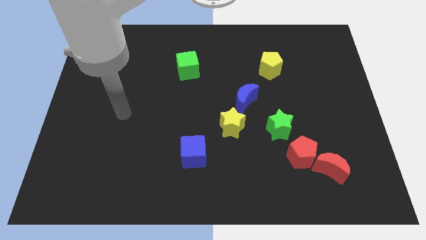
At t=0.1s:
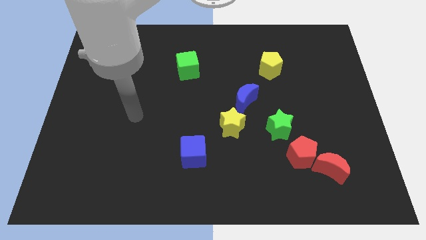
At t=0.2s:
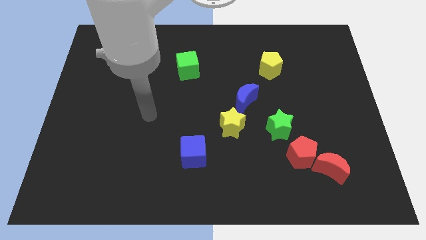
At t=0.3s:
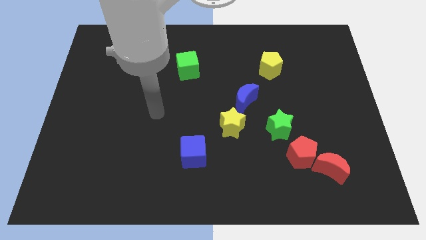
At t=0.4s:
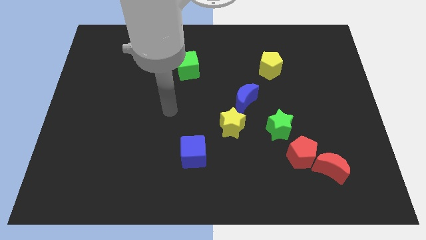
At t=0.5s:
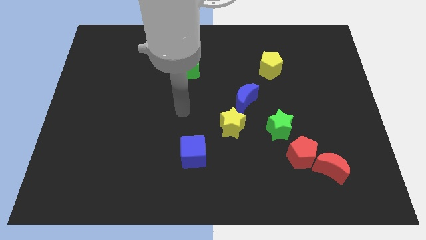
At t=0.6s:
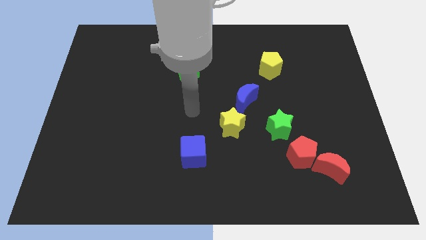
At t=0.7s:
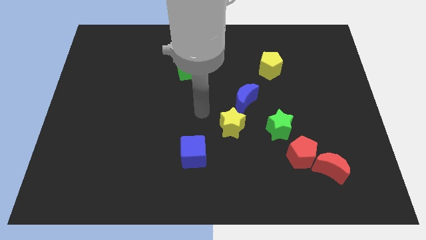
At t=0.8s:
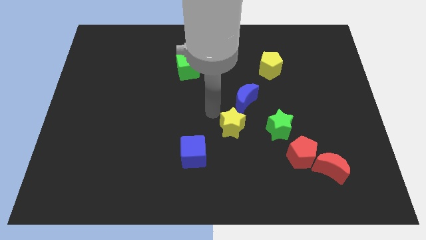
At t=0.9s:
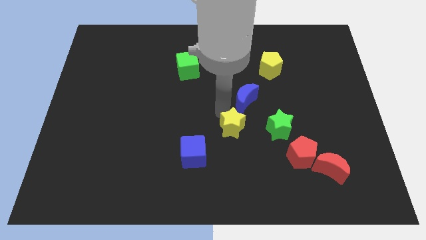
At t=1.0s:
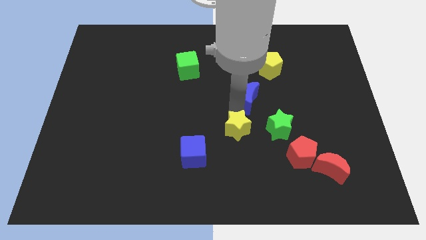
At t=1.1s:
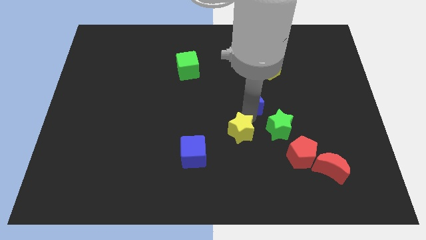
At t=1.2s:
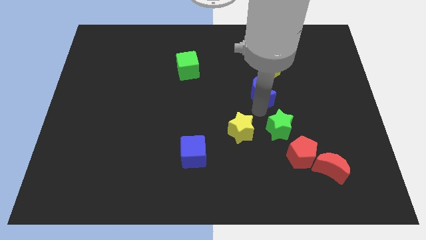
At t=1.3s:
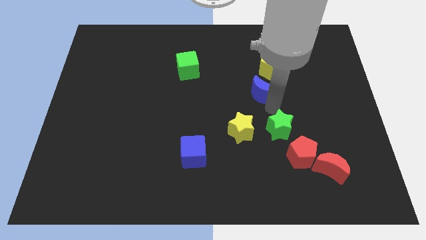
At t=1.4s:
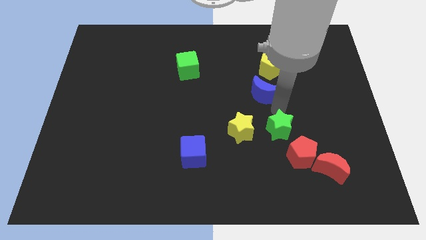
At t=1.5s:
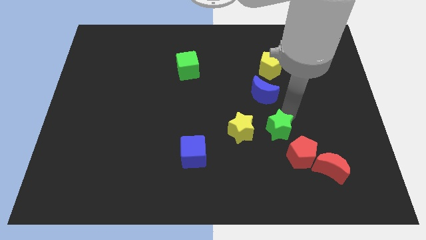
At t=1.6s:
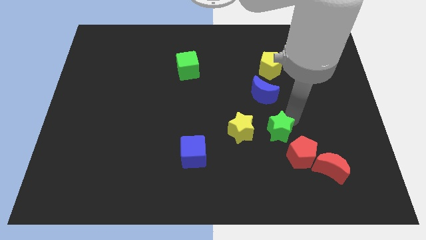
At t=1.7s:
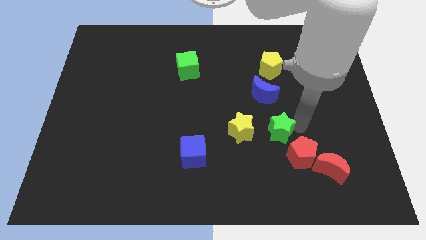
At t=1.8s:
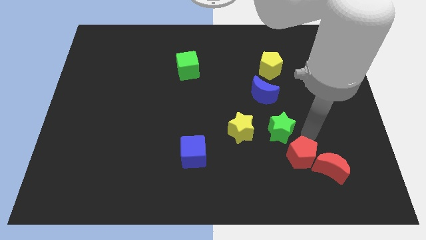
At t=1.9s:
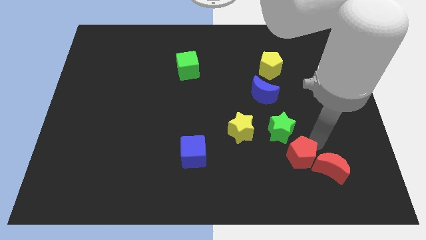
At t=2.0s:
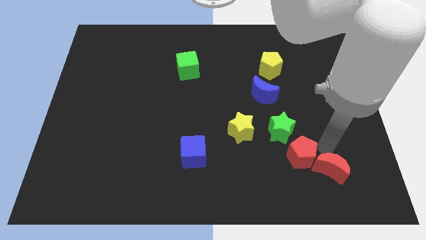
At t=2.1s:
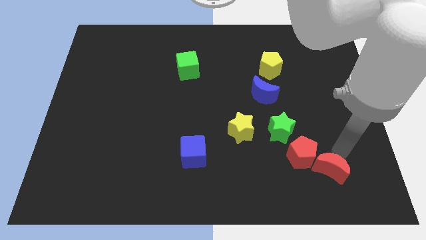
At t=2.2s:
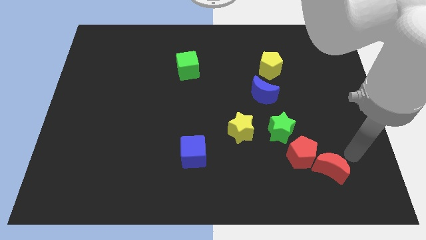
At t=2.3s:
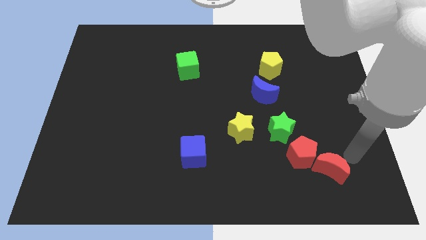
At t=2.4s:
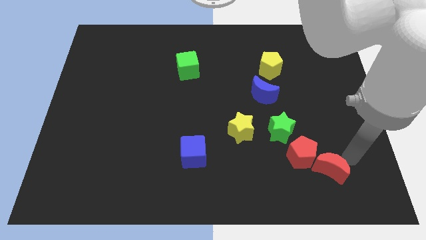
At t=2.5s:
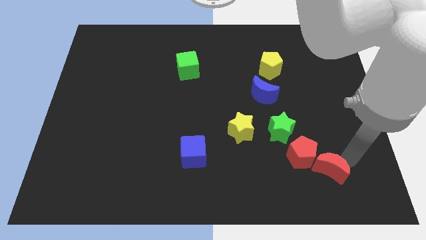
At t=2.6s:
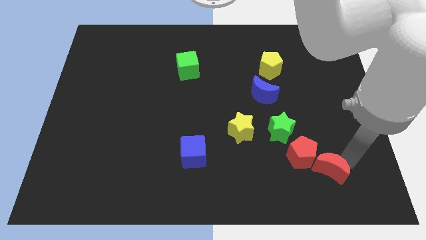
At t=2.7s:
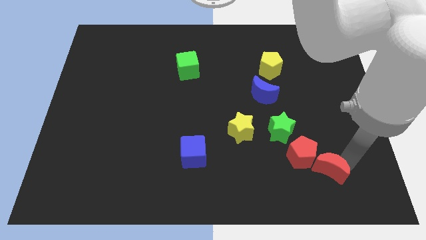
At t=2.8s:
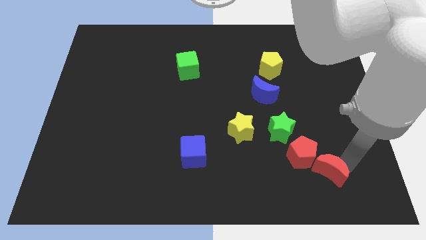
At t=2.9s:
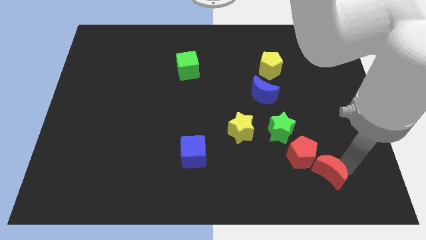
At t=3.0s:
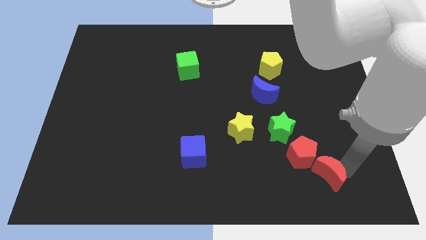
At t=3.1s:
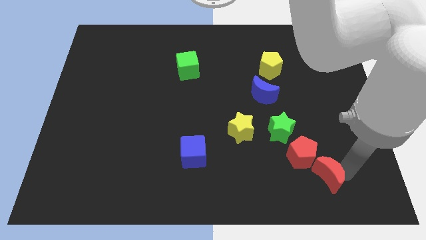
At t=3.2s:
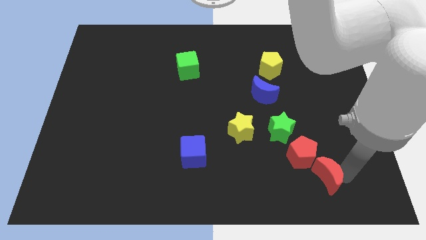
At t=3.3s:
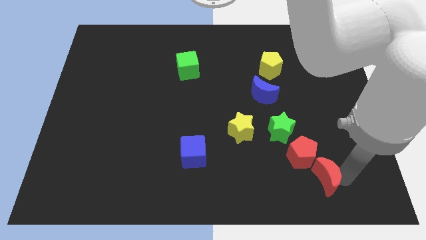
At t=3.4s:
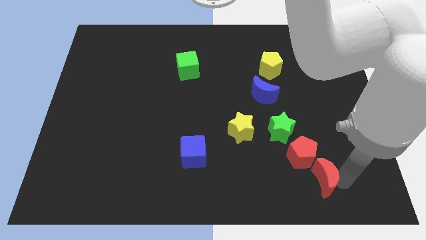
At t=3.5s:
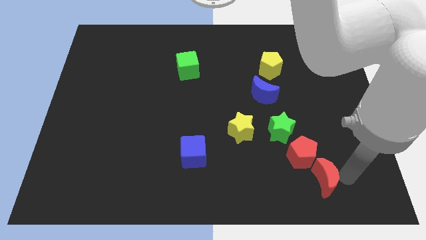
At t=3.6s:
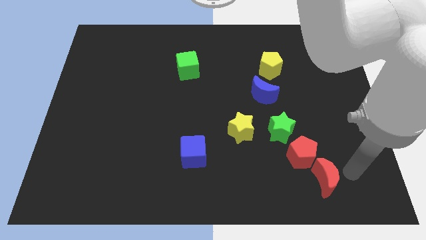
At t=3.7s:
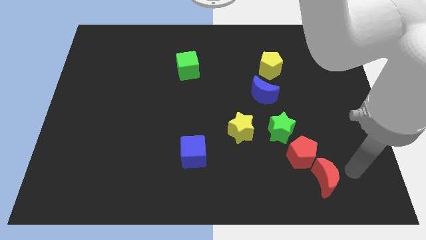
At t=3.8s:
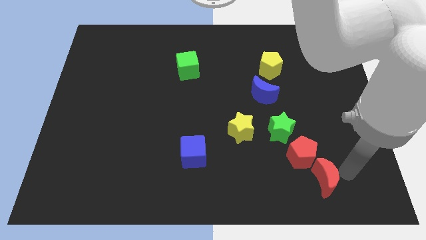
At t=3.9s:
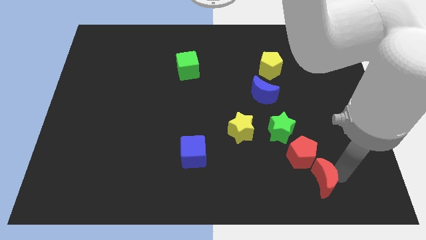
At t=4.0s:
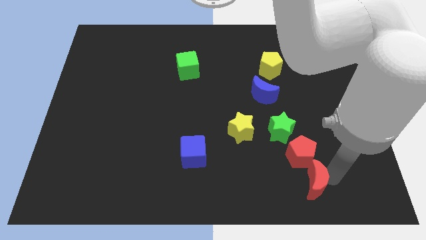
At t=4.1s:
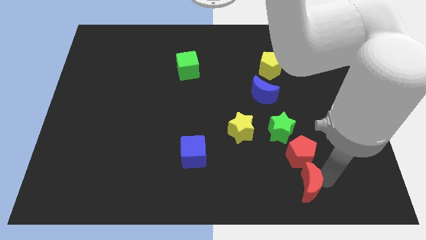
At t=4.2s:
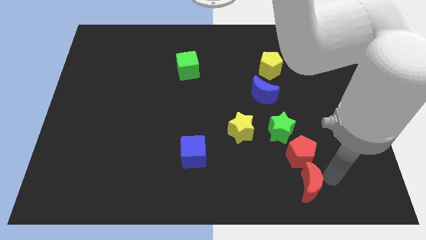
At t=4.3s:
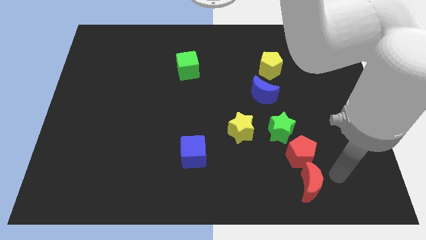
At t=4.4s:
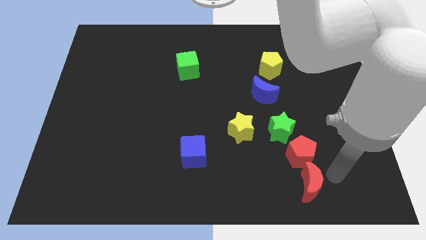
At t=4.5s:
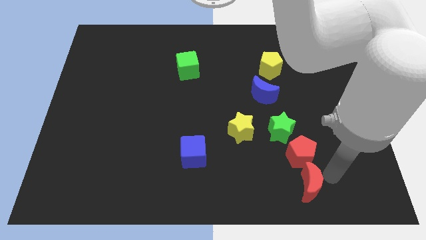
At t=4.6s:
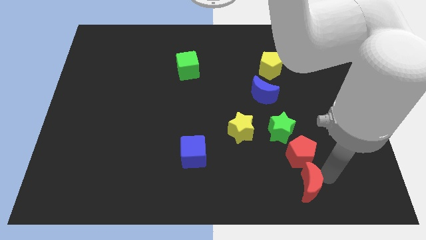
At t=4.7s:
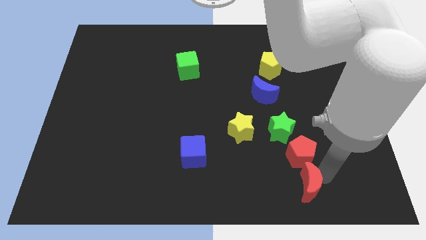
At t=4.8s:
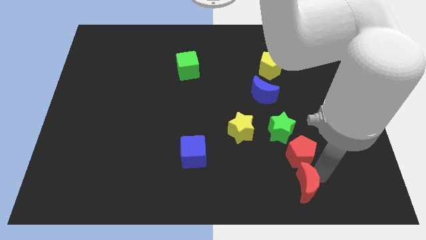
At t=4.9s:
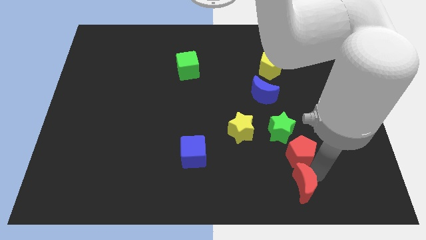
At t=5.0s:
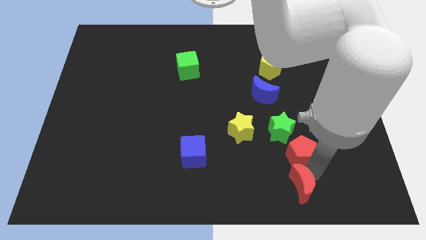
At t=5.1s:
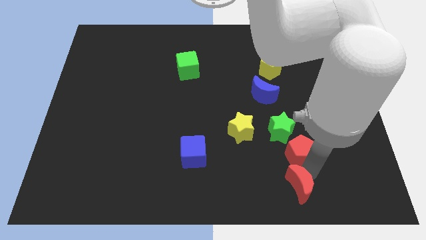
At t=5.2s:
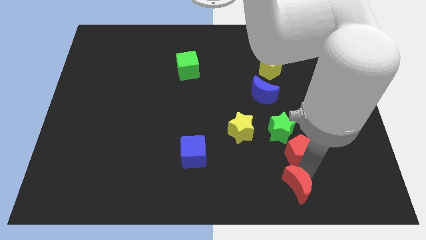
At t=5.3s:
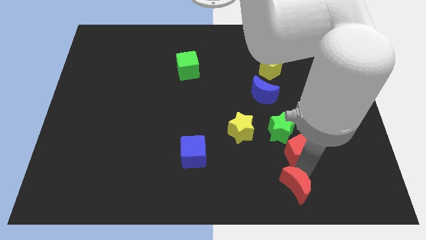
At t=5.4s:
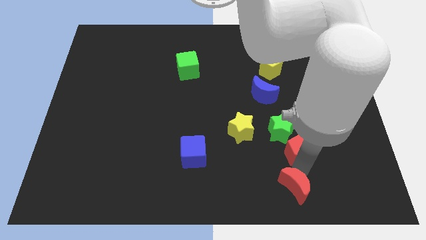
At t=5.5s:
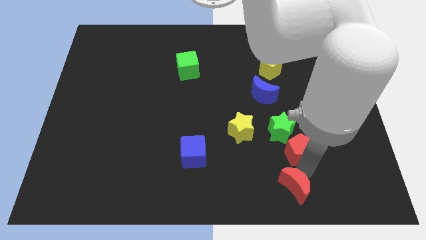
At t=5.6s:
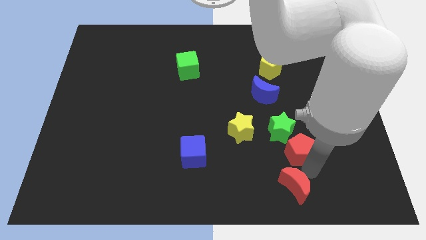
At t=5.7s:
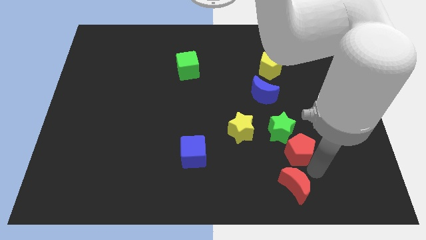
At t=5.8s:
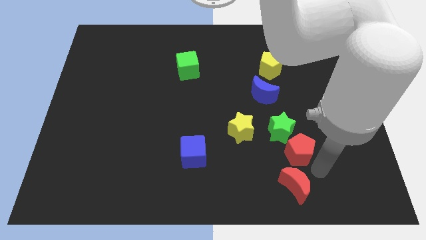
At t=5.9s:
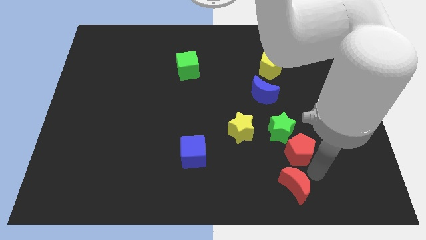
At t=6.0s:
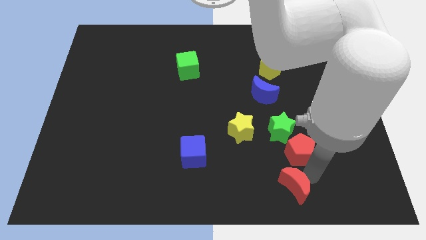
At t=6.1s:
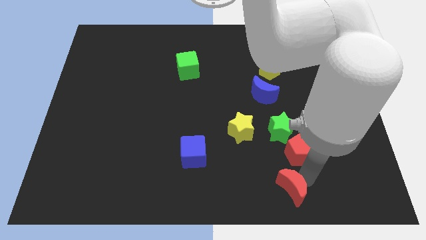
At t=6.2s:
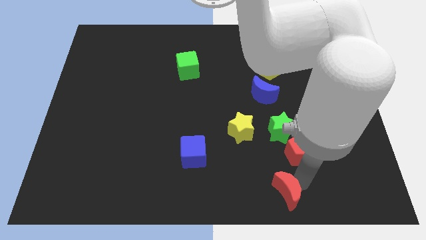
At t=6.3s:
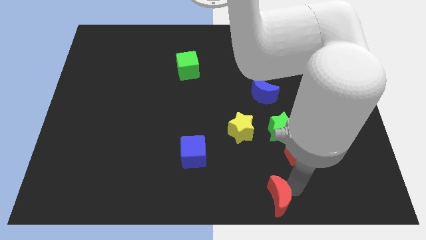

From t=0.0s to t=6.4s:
move the red moon to the bottom

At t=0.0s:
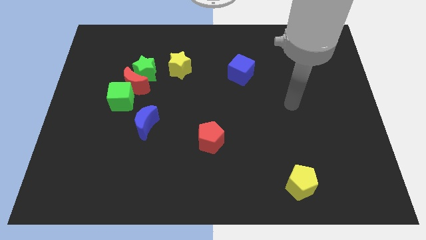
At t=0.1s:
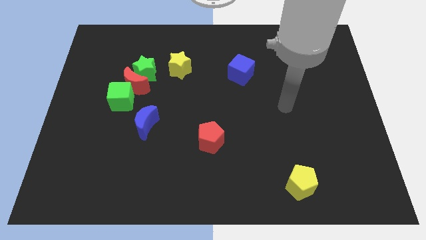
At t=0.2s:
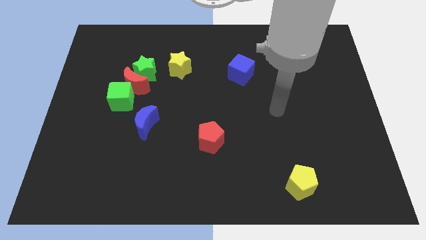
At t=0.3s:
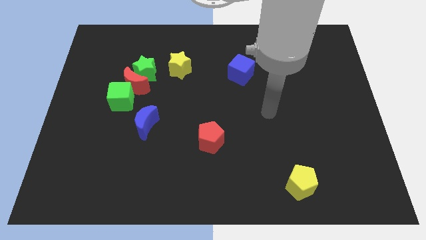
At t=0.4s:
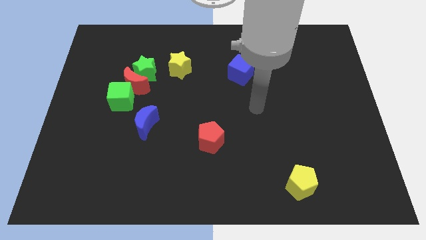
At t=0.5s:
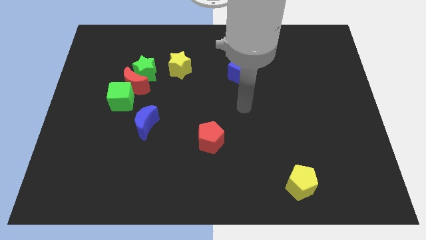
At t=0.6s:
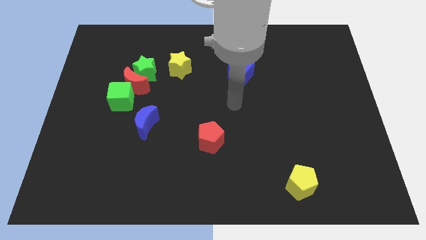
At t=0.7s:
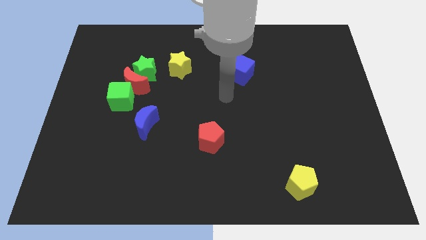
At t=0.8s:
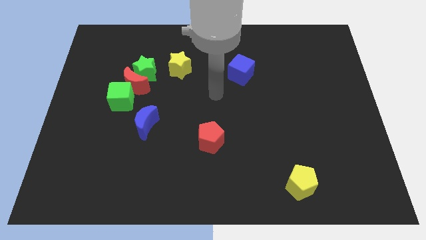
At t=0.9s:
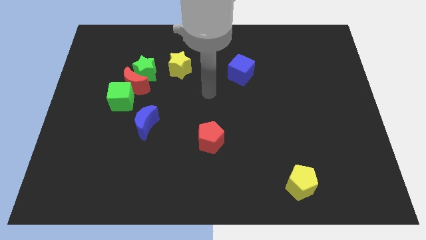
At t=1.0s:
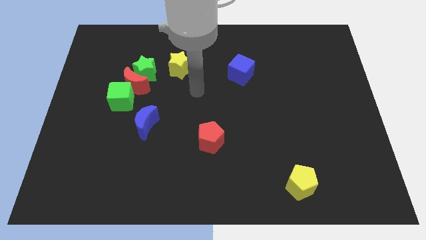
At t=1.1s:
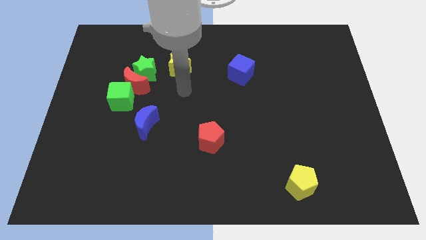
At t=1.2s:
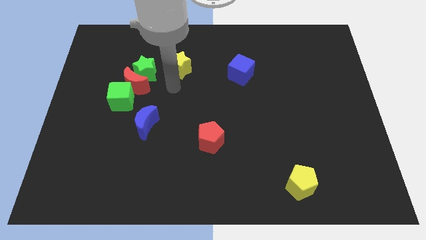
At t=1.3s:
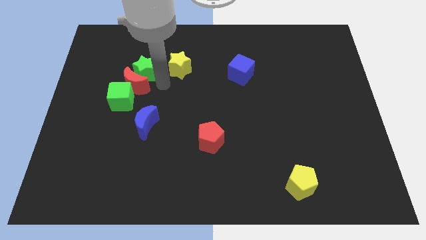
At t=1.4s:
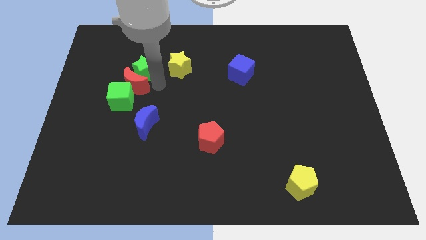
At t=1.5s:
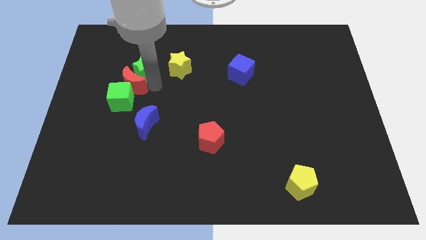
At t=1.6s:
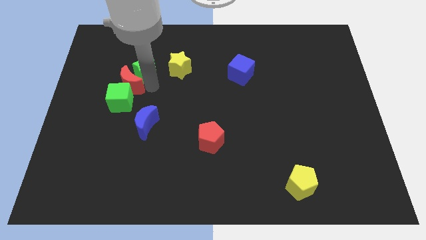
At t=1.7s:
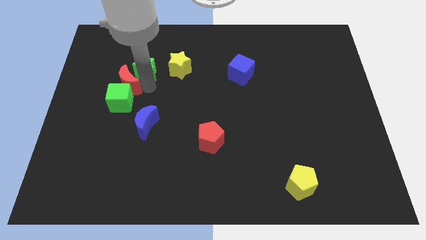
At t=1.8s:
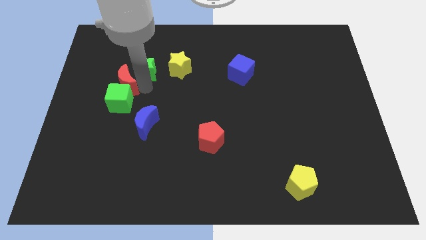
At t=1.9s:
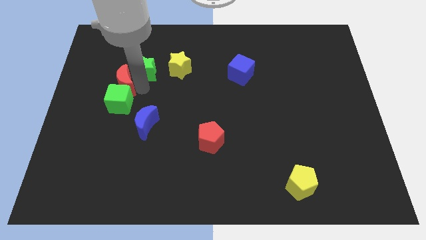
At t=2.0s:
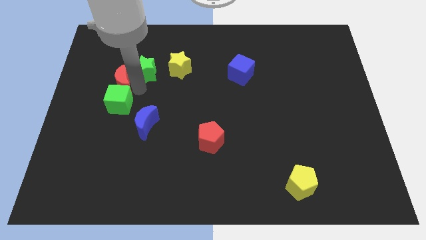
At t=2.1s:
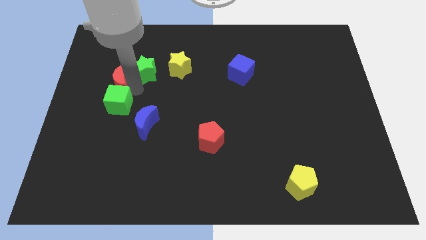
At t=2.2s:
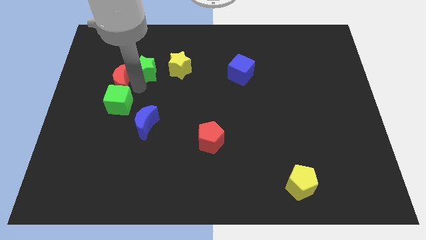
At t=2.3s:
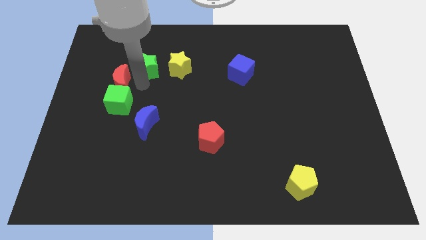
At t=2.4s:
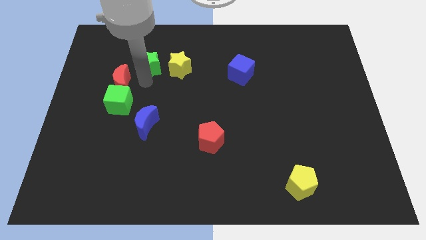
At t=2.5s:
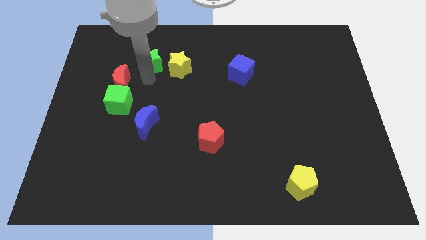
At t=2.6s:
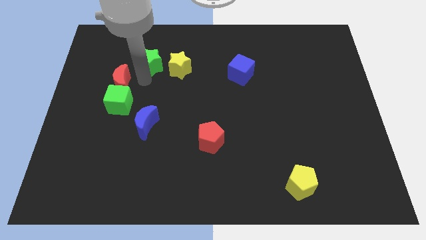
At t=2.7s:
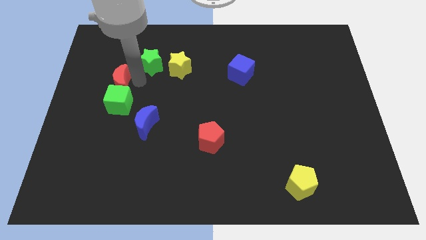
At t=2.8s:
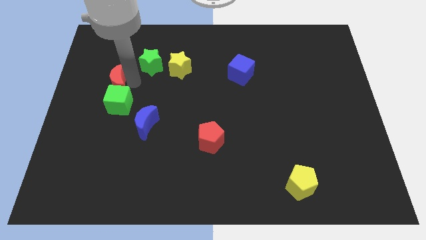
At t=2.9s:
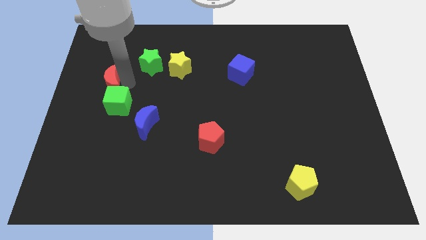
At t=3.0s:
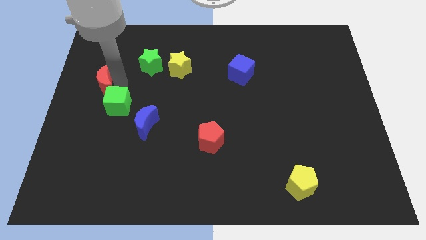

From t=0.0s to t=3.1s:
push the red moon to the left side
